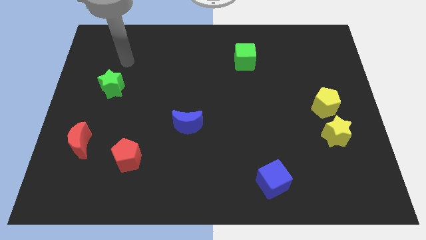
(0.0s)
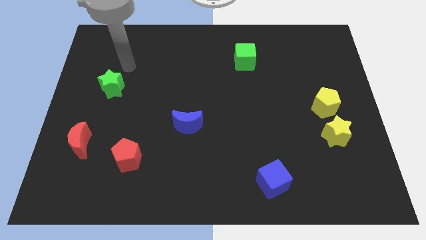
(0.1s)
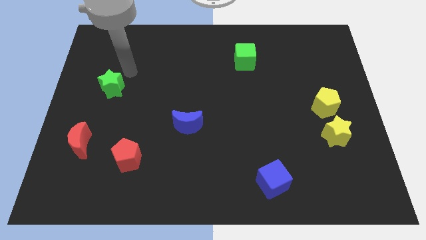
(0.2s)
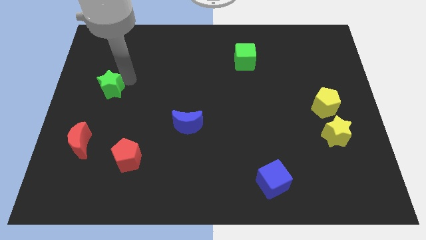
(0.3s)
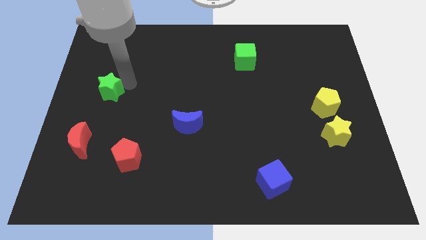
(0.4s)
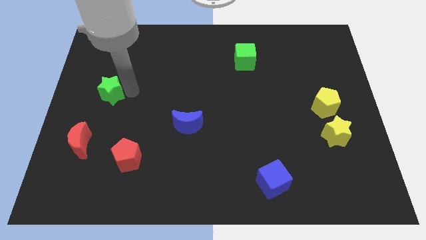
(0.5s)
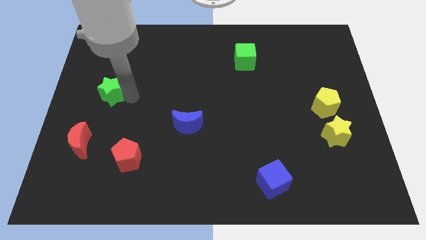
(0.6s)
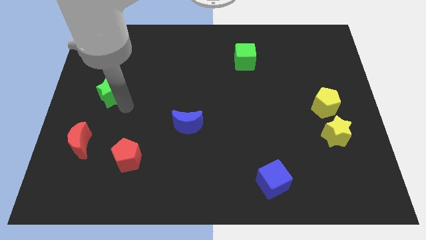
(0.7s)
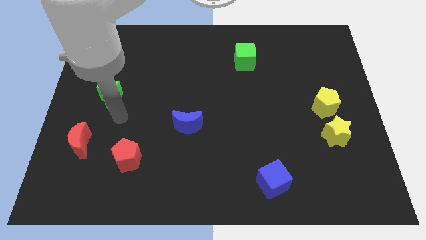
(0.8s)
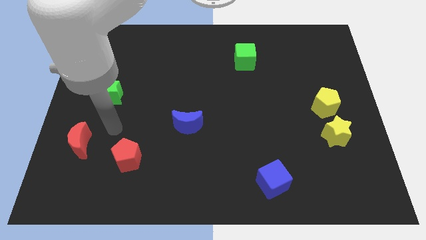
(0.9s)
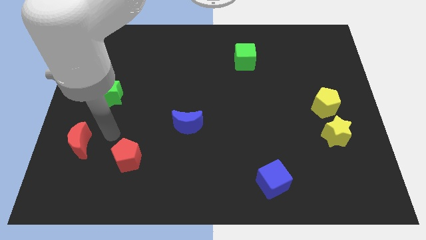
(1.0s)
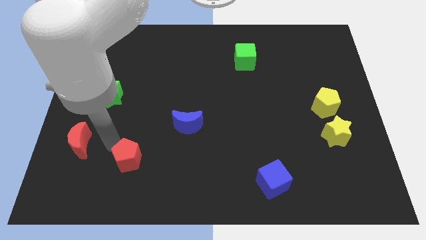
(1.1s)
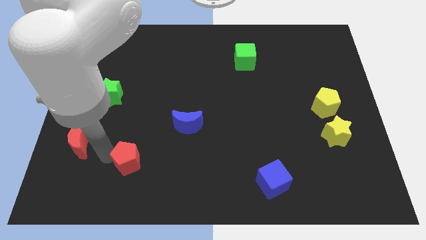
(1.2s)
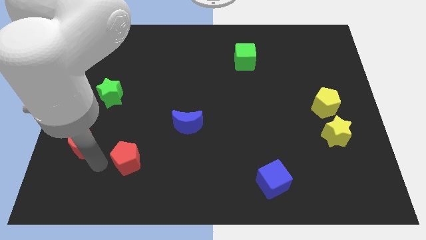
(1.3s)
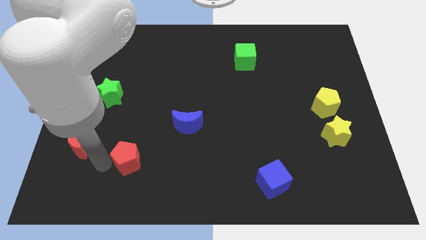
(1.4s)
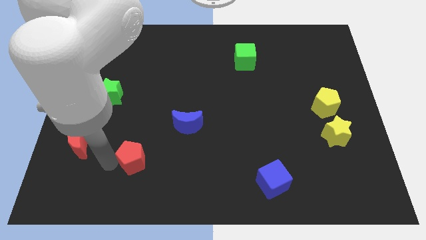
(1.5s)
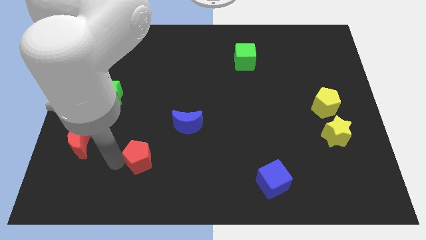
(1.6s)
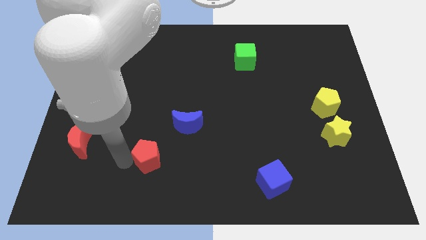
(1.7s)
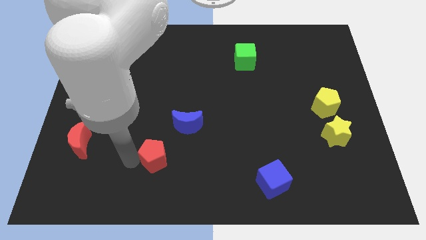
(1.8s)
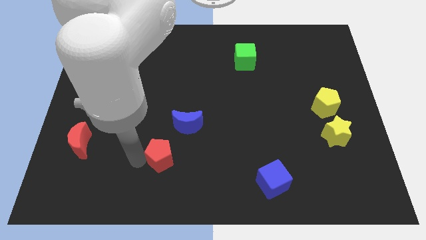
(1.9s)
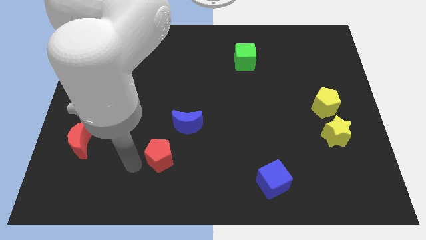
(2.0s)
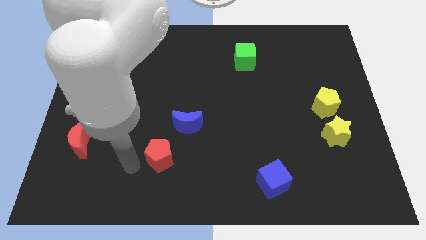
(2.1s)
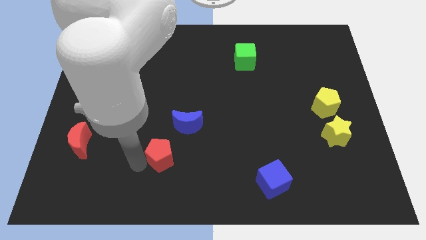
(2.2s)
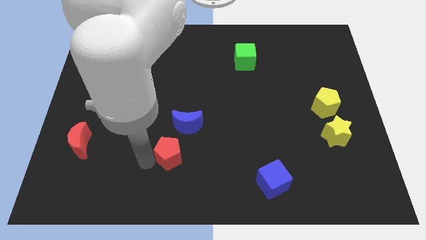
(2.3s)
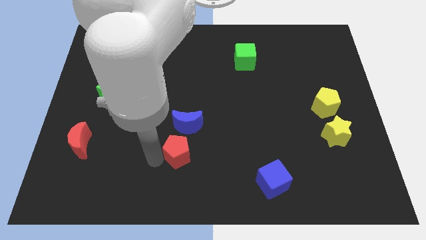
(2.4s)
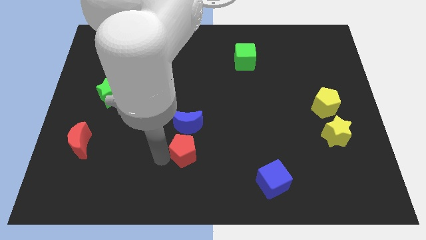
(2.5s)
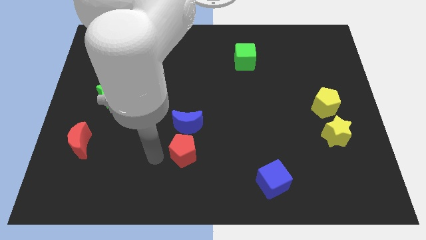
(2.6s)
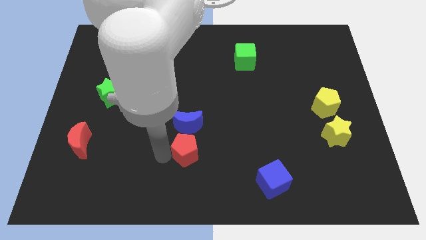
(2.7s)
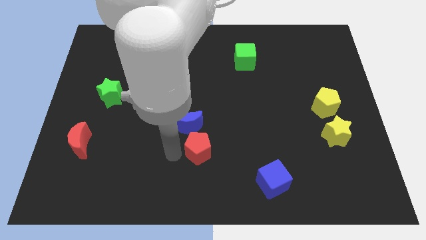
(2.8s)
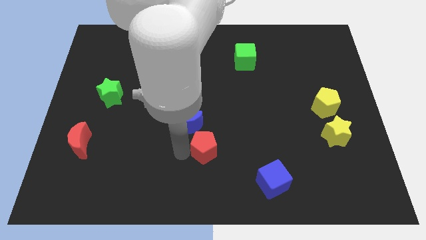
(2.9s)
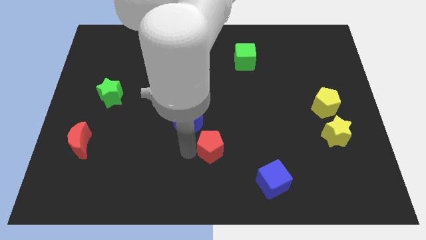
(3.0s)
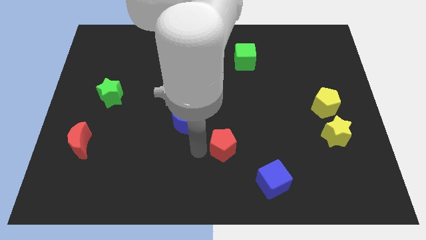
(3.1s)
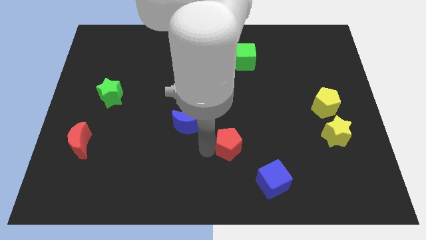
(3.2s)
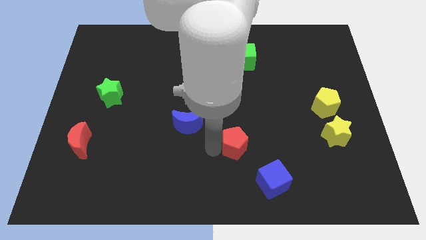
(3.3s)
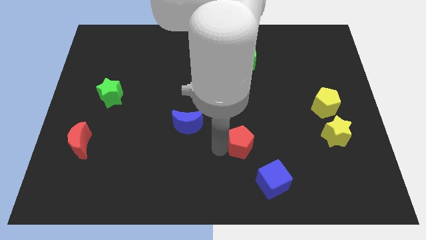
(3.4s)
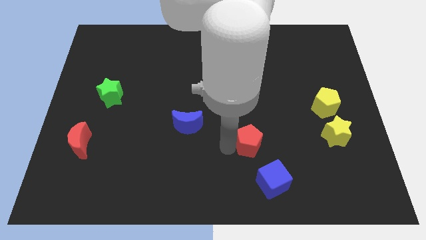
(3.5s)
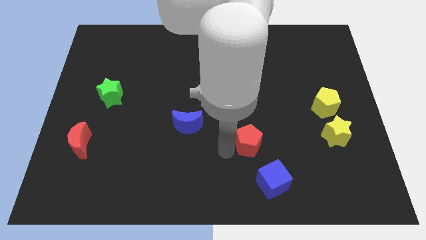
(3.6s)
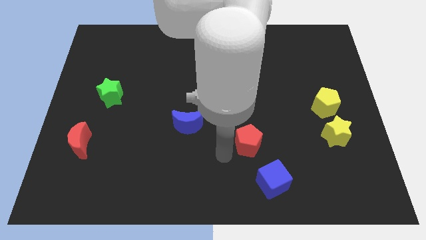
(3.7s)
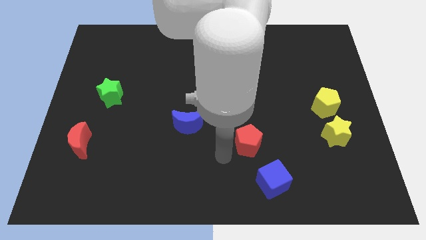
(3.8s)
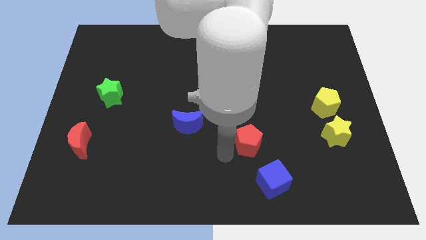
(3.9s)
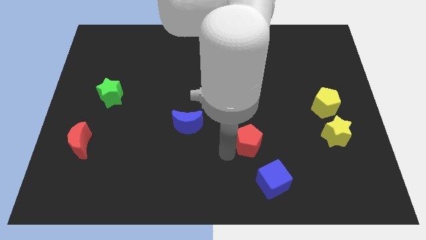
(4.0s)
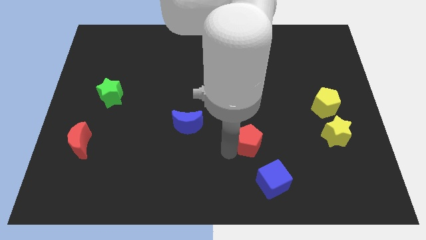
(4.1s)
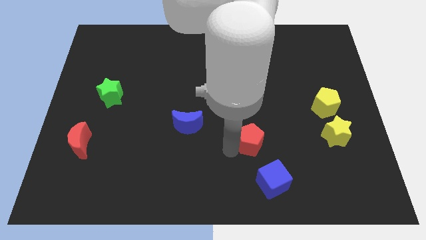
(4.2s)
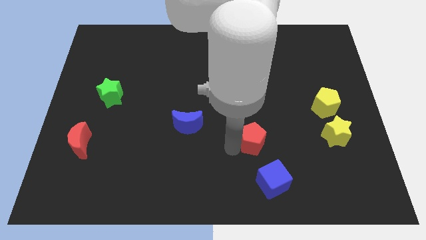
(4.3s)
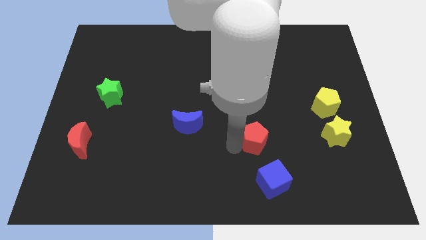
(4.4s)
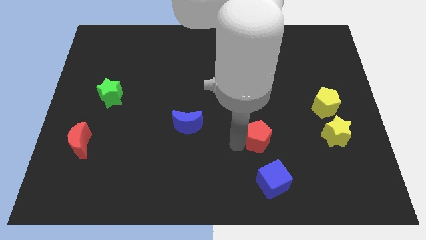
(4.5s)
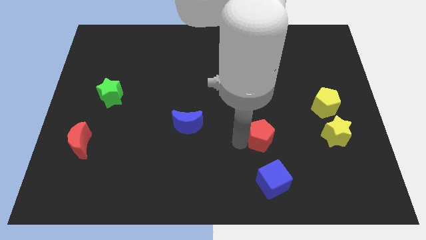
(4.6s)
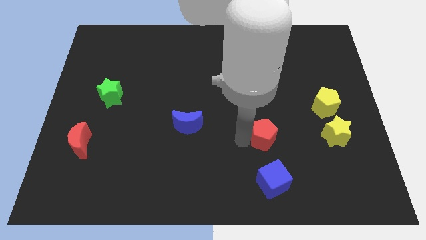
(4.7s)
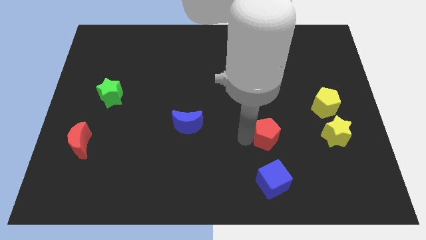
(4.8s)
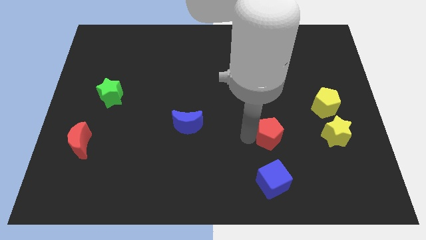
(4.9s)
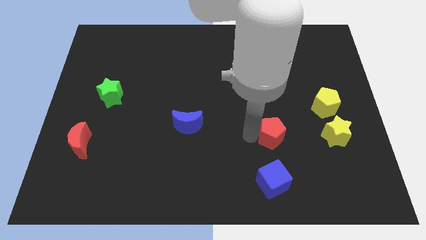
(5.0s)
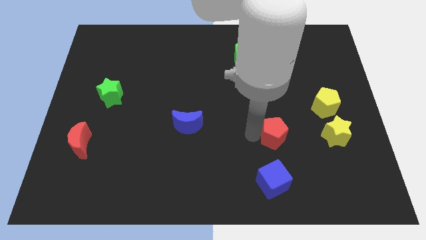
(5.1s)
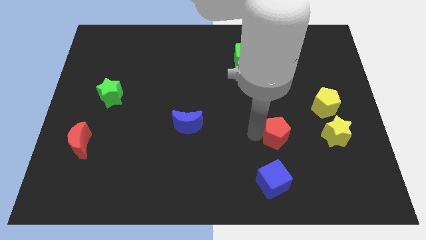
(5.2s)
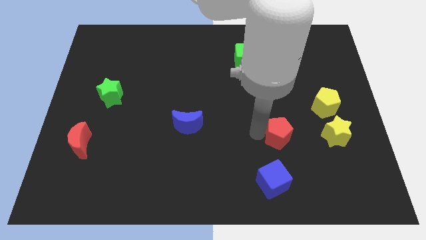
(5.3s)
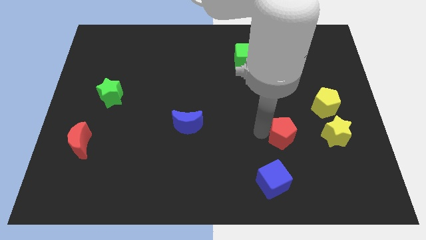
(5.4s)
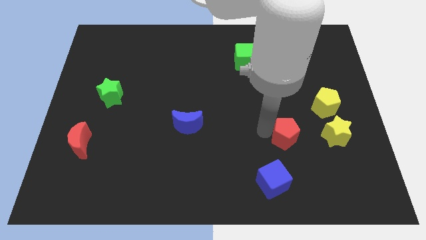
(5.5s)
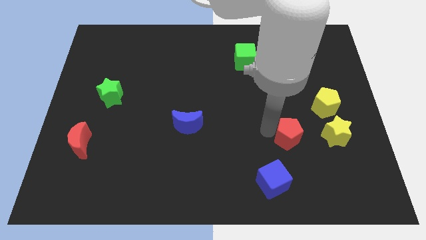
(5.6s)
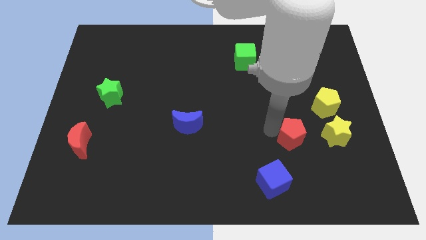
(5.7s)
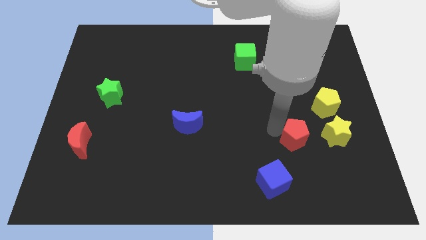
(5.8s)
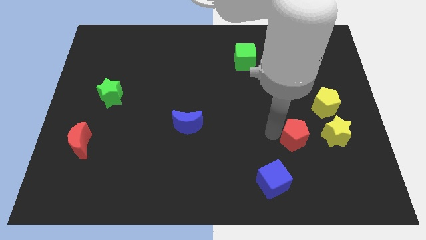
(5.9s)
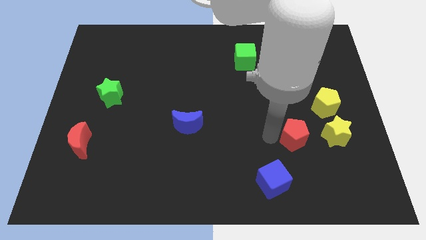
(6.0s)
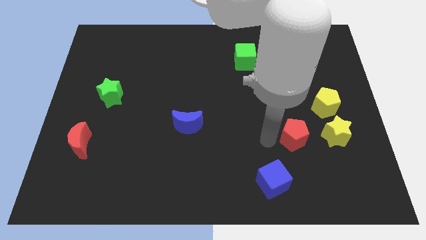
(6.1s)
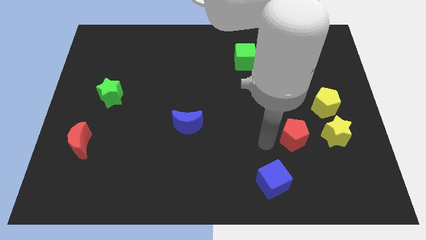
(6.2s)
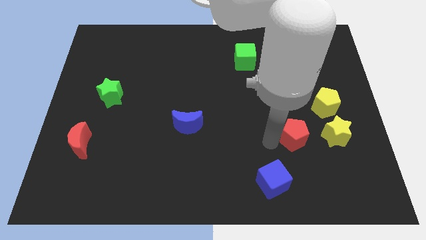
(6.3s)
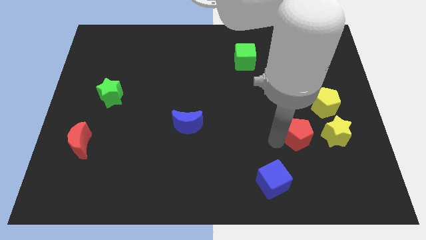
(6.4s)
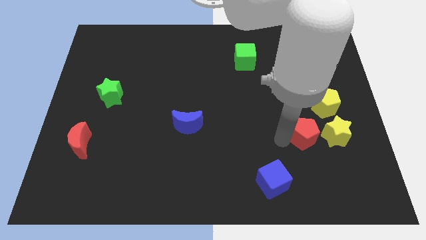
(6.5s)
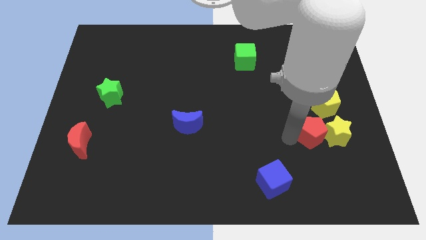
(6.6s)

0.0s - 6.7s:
put the red pentagon close to the yellow star
